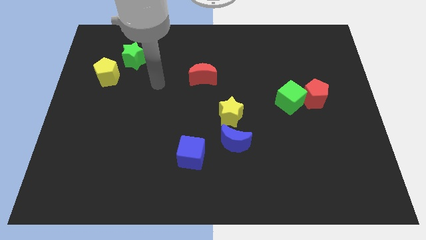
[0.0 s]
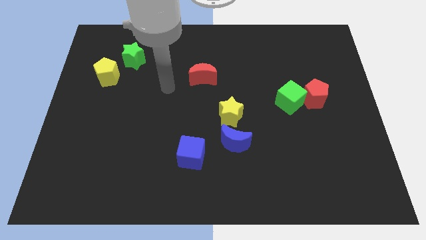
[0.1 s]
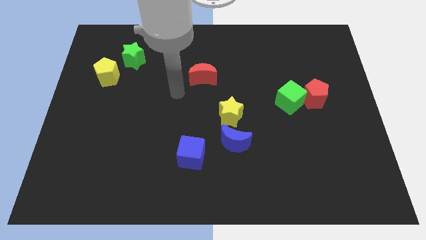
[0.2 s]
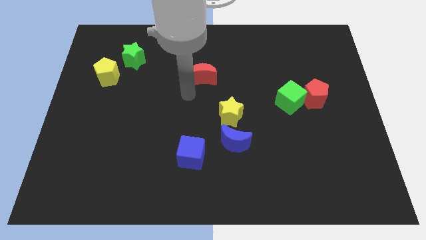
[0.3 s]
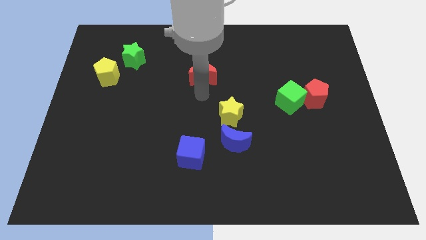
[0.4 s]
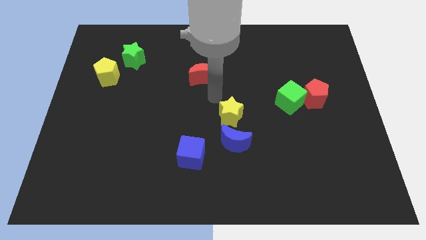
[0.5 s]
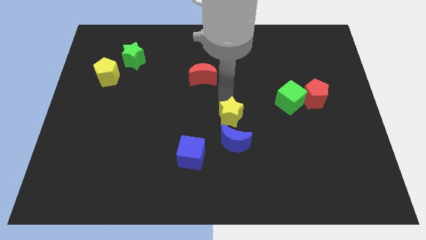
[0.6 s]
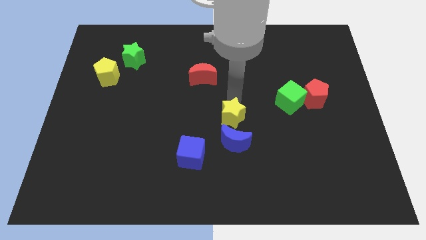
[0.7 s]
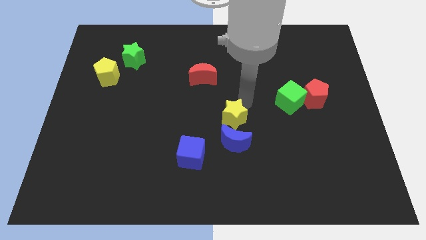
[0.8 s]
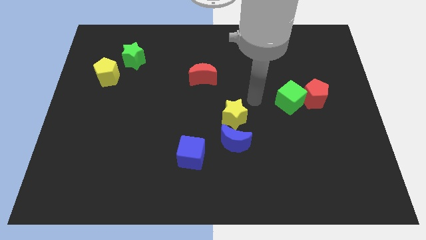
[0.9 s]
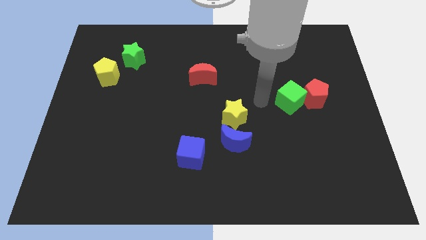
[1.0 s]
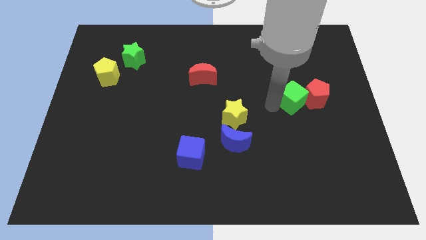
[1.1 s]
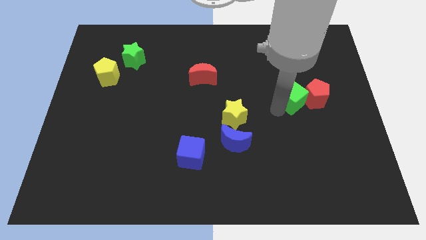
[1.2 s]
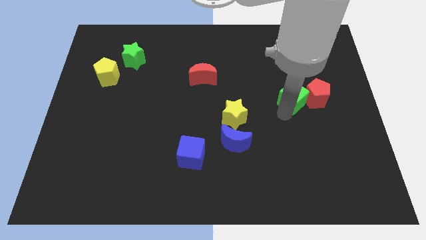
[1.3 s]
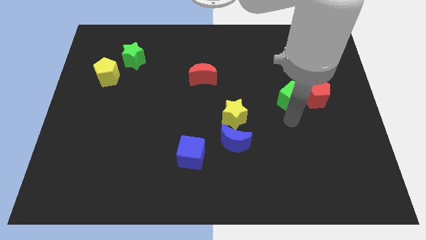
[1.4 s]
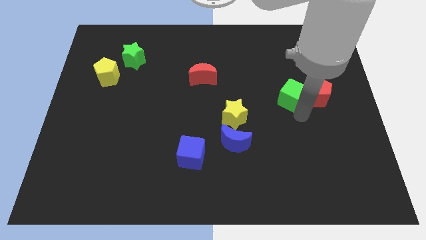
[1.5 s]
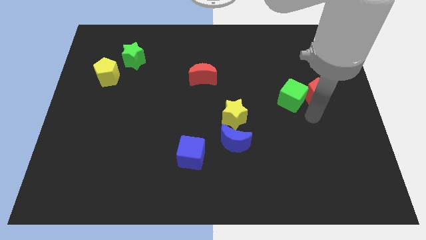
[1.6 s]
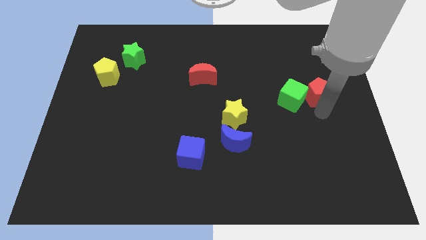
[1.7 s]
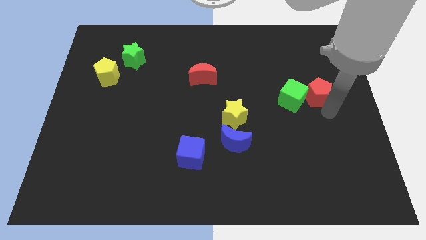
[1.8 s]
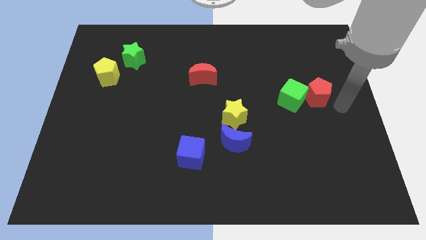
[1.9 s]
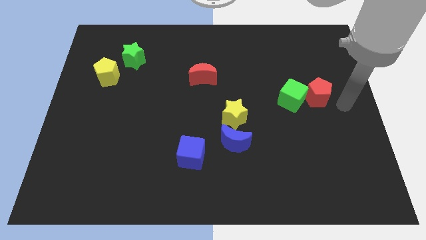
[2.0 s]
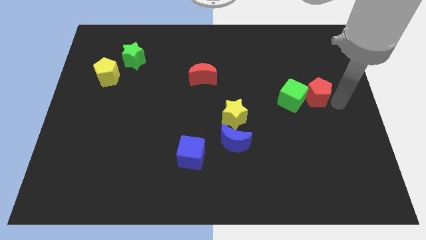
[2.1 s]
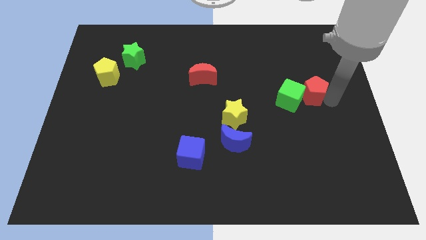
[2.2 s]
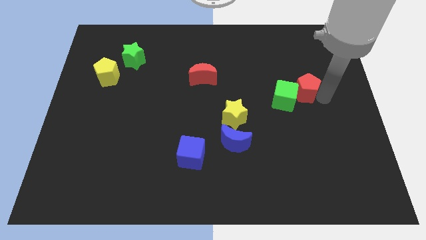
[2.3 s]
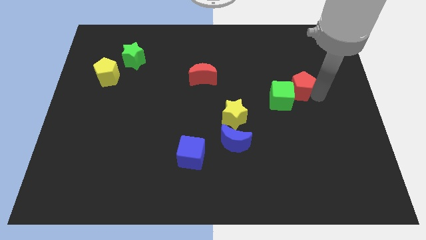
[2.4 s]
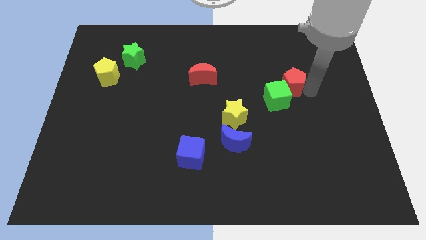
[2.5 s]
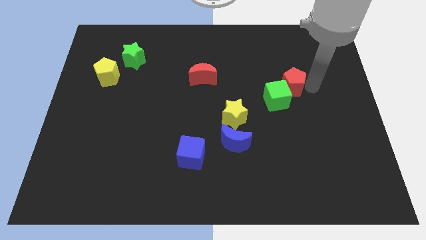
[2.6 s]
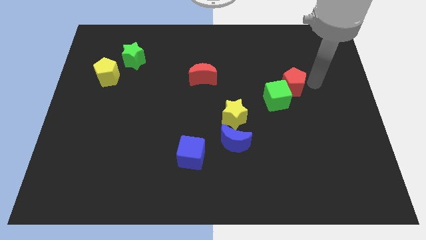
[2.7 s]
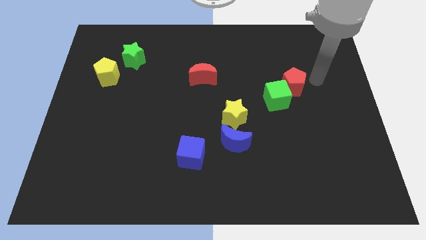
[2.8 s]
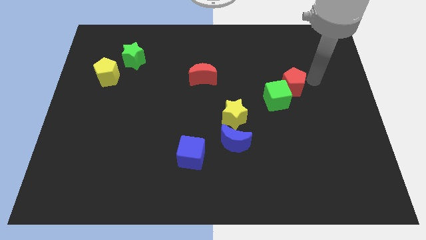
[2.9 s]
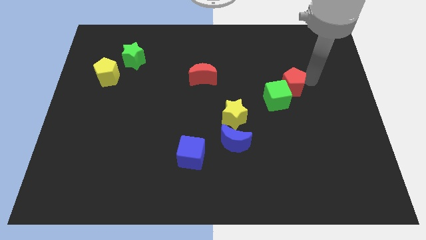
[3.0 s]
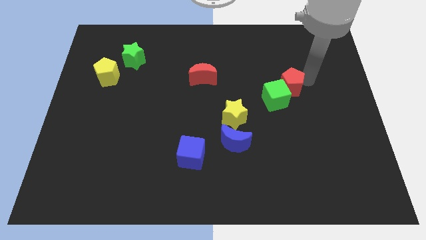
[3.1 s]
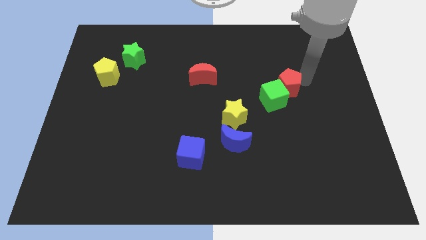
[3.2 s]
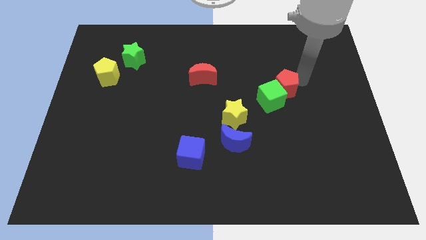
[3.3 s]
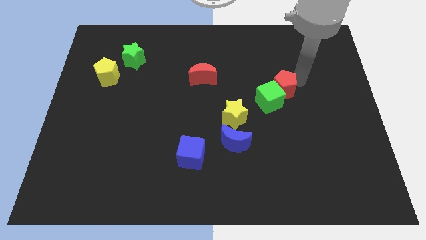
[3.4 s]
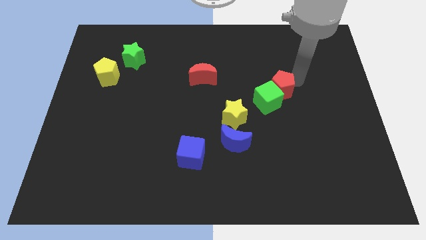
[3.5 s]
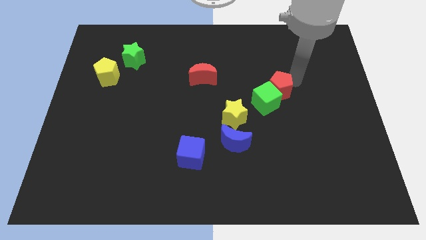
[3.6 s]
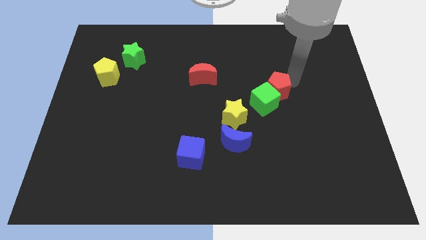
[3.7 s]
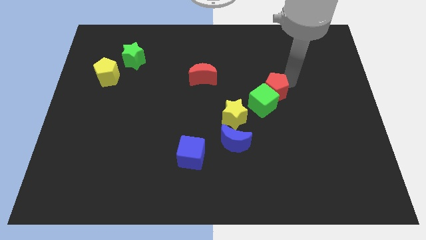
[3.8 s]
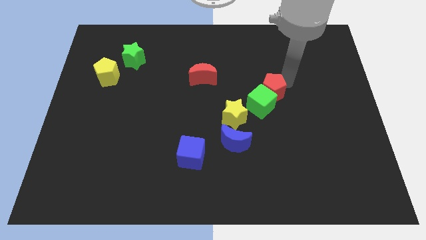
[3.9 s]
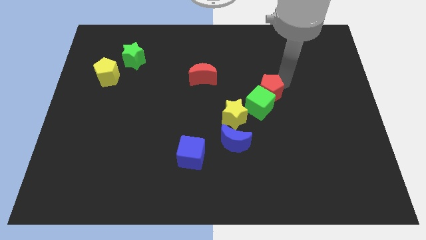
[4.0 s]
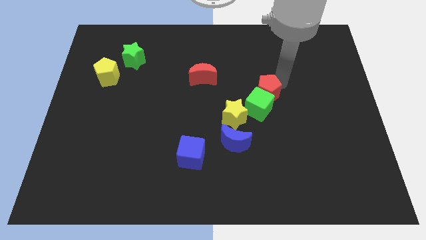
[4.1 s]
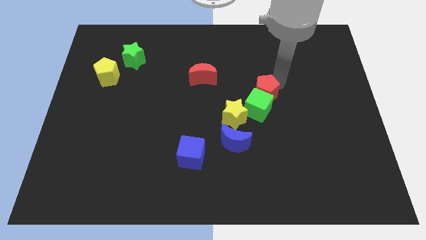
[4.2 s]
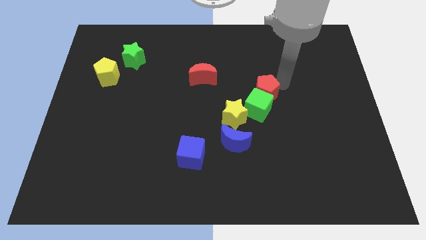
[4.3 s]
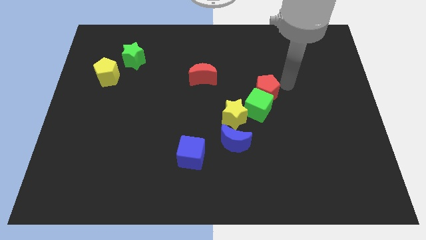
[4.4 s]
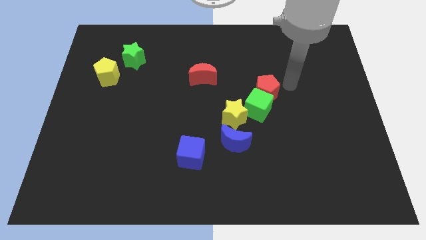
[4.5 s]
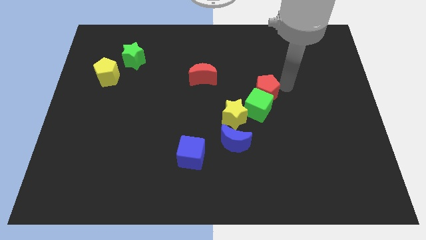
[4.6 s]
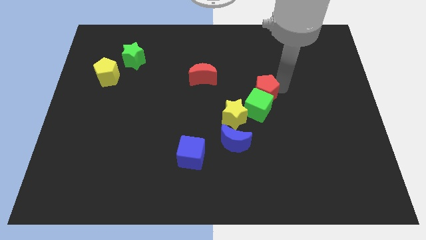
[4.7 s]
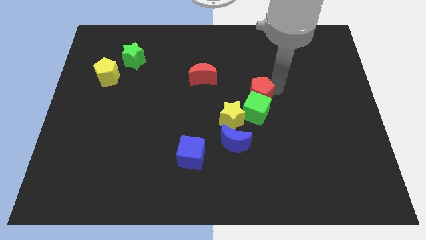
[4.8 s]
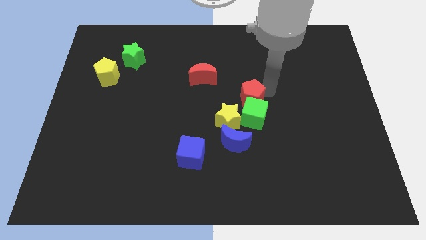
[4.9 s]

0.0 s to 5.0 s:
slide the red pentagon to the top of the blue moon

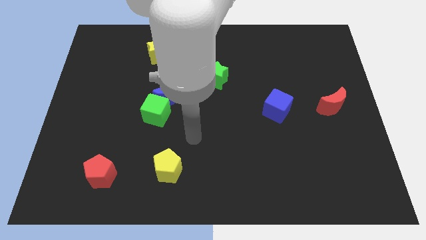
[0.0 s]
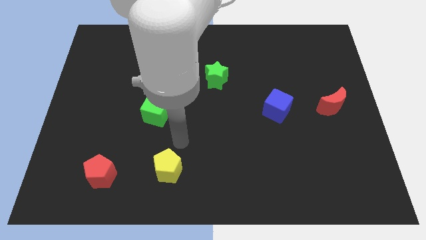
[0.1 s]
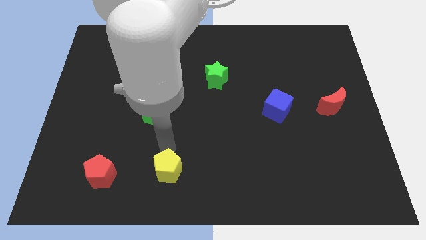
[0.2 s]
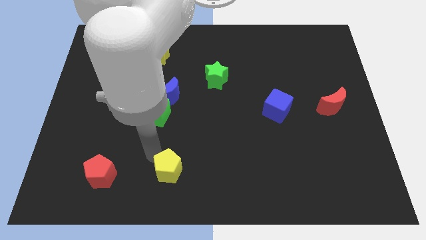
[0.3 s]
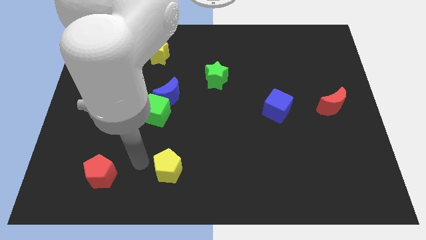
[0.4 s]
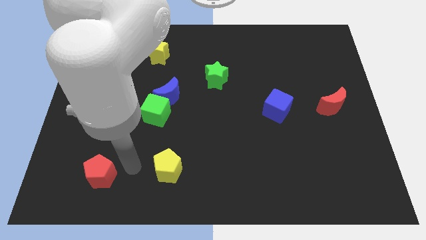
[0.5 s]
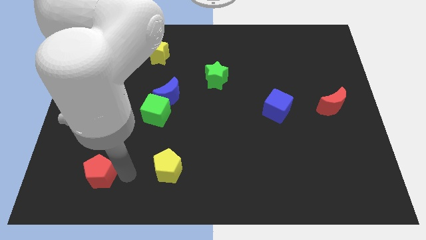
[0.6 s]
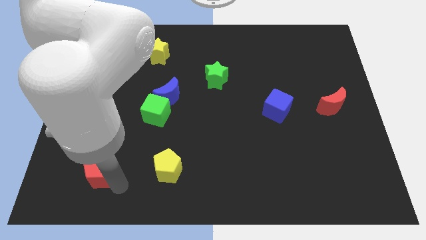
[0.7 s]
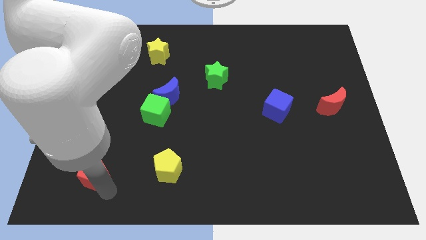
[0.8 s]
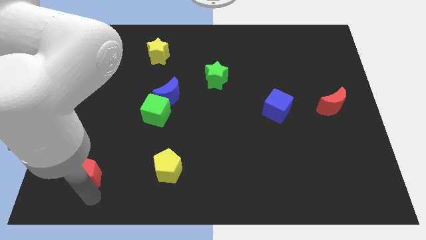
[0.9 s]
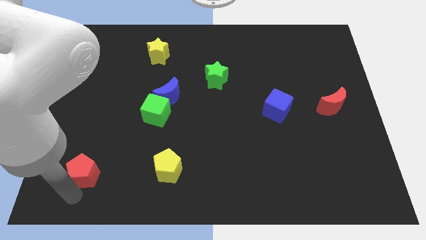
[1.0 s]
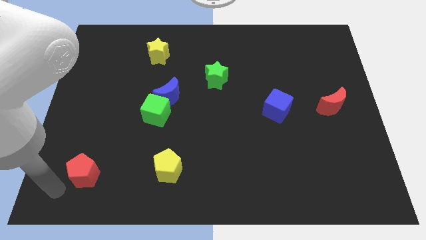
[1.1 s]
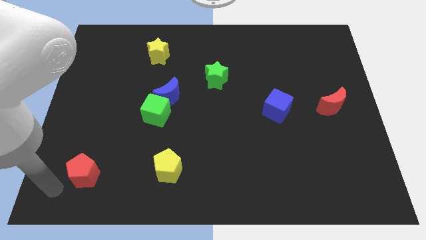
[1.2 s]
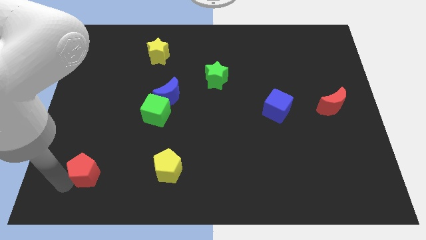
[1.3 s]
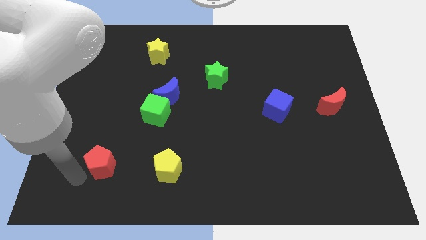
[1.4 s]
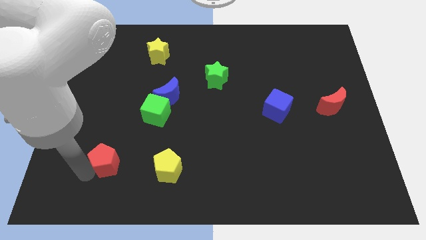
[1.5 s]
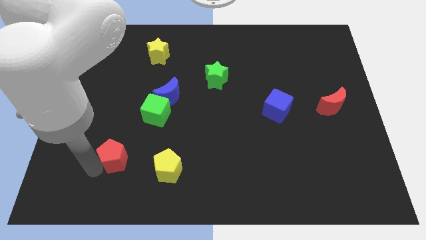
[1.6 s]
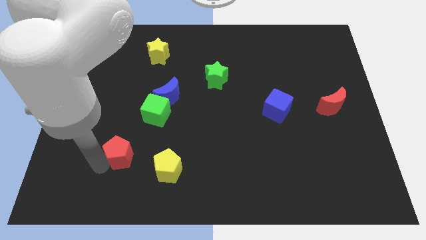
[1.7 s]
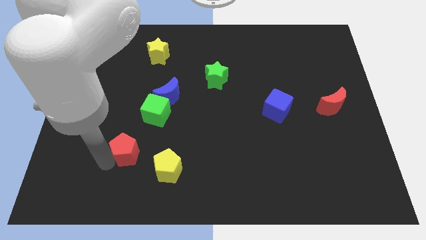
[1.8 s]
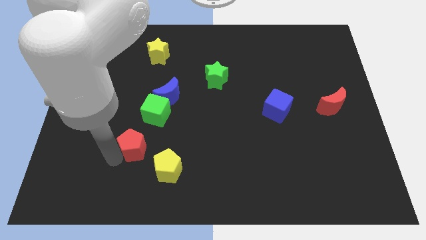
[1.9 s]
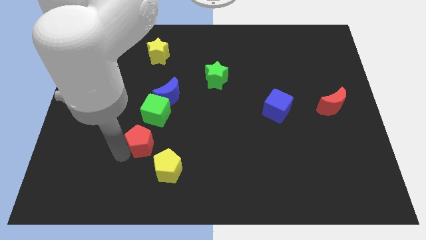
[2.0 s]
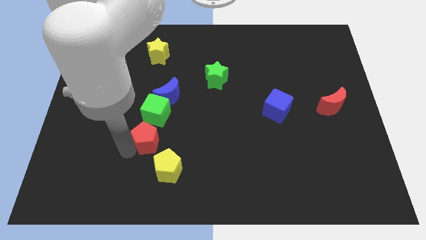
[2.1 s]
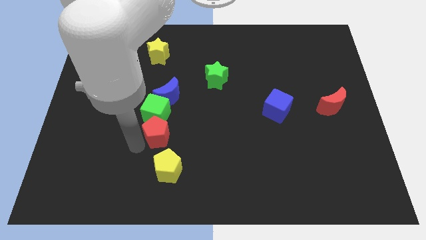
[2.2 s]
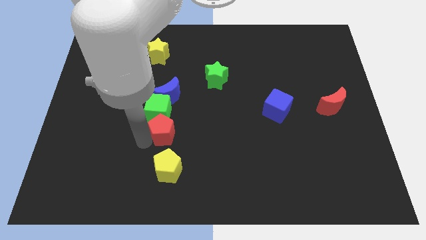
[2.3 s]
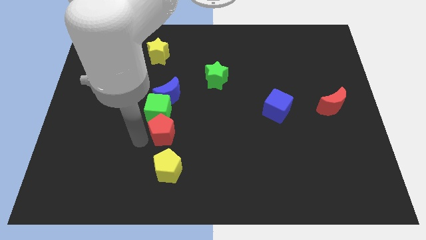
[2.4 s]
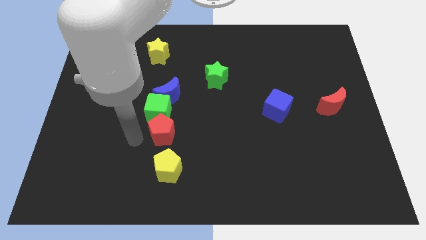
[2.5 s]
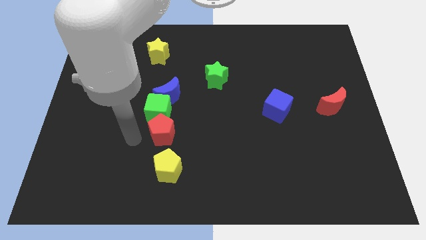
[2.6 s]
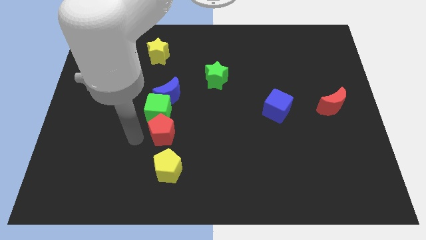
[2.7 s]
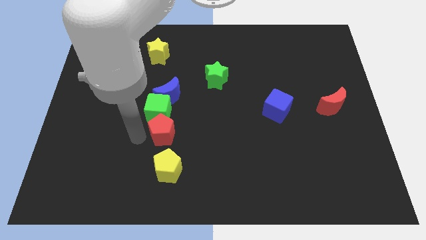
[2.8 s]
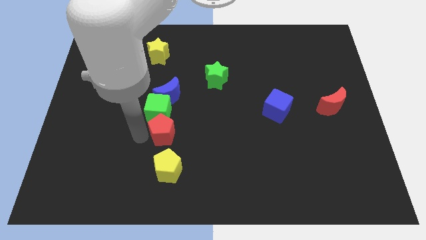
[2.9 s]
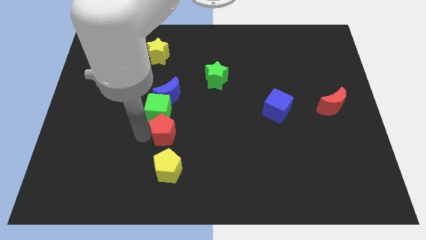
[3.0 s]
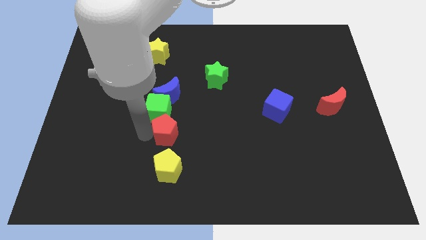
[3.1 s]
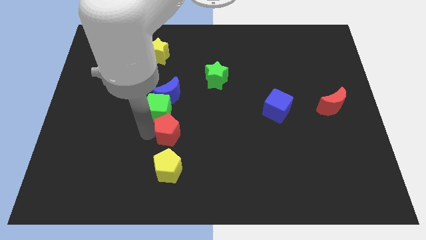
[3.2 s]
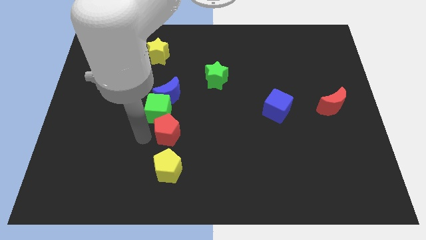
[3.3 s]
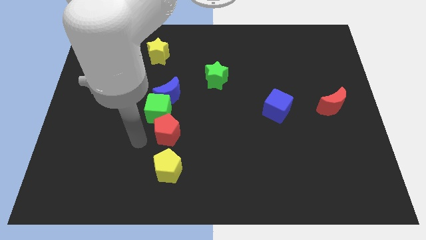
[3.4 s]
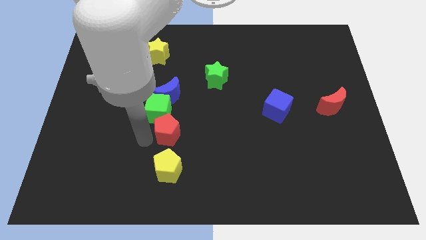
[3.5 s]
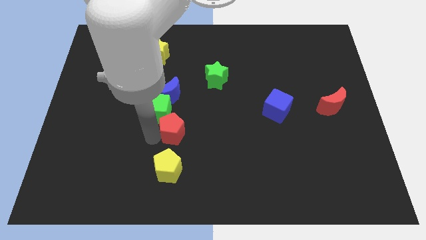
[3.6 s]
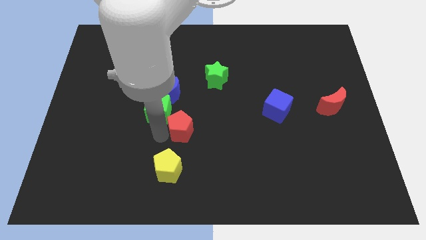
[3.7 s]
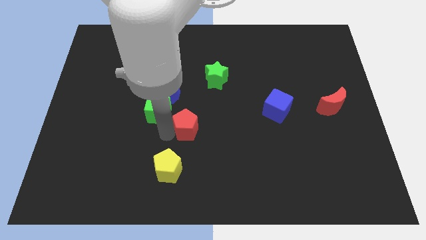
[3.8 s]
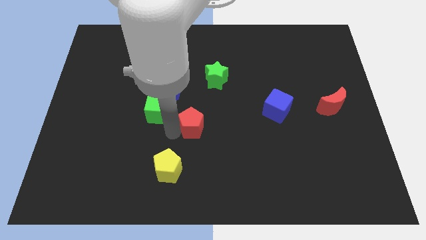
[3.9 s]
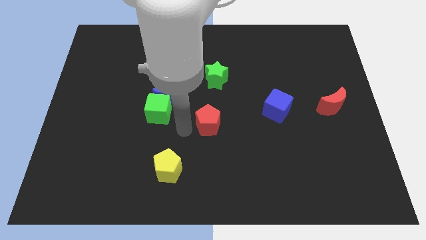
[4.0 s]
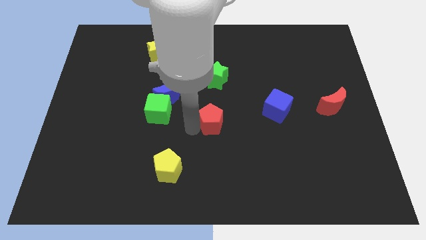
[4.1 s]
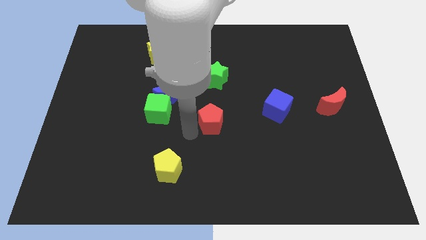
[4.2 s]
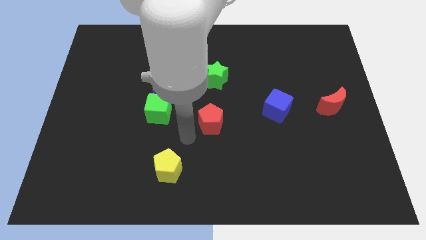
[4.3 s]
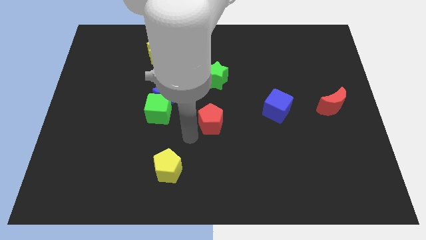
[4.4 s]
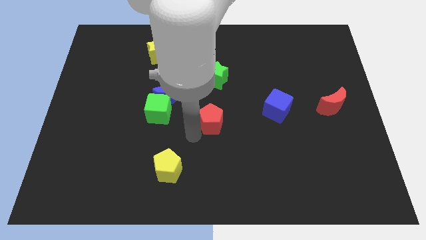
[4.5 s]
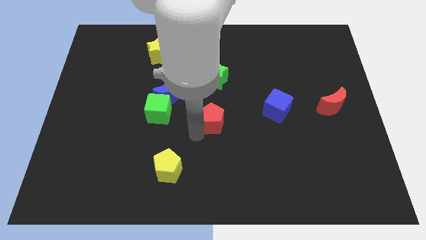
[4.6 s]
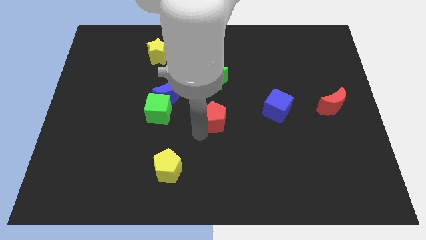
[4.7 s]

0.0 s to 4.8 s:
push the red pentagon to the left of the blue cube
